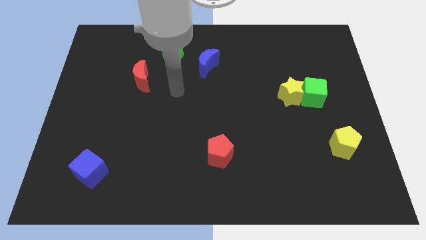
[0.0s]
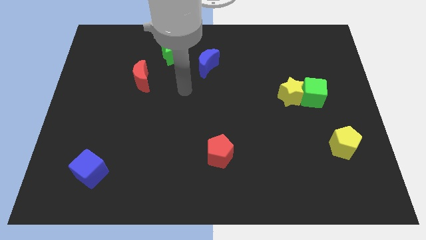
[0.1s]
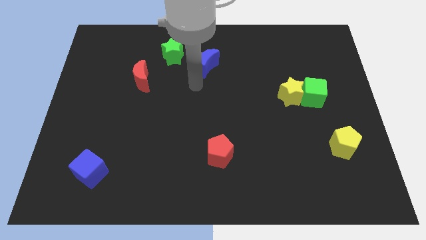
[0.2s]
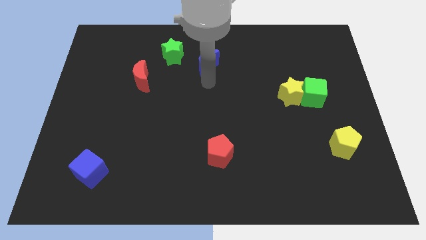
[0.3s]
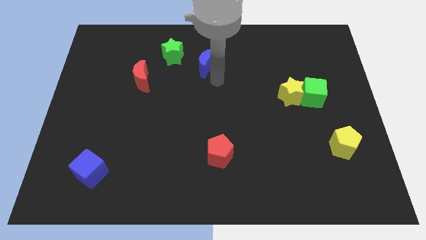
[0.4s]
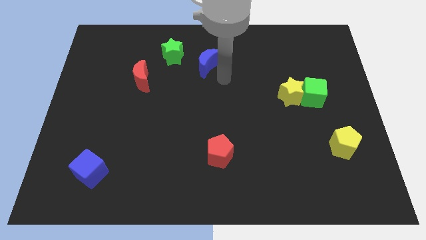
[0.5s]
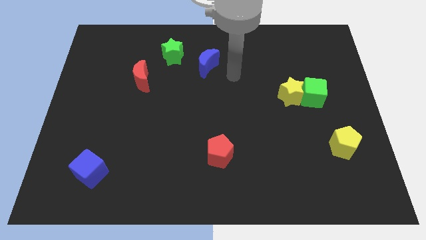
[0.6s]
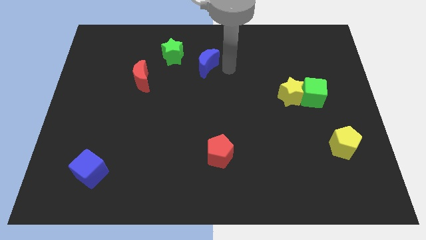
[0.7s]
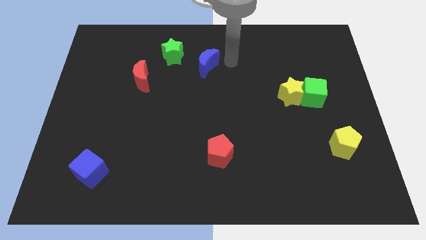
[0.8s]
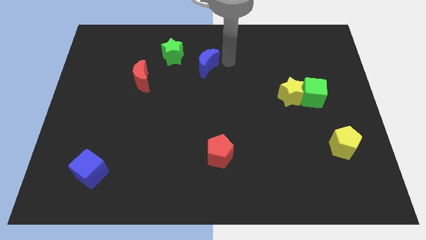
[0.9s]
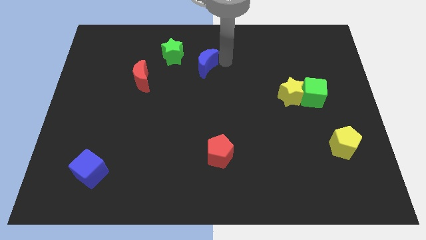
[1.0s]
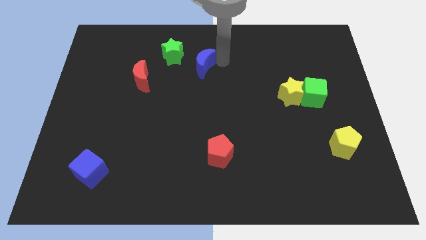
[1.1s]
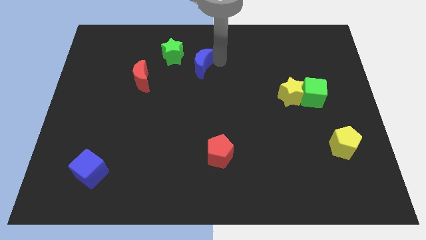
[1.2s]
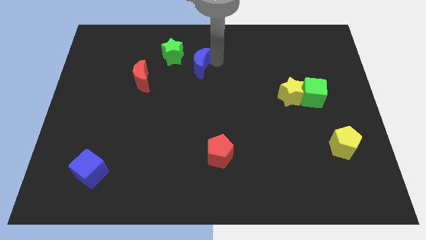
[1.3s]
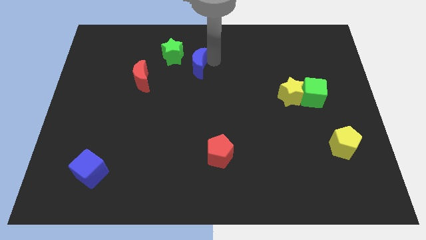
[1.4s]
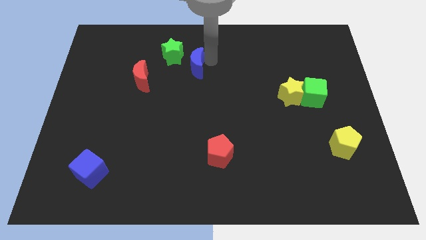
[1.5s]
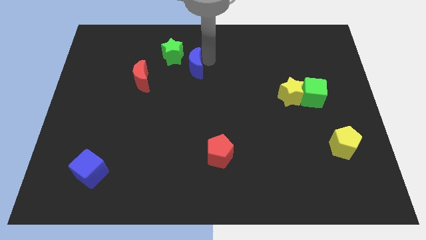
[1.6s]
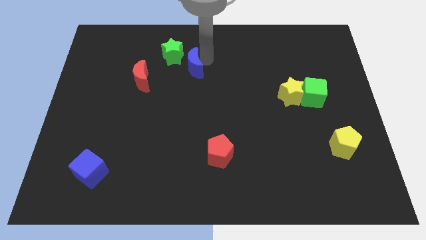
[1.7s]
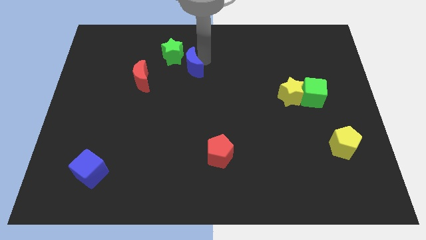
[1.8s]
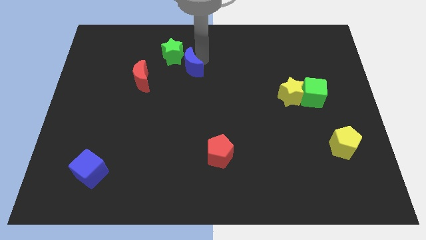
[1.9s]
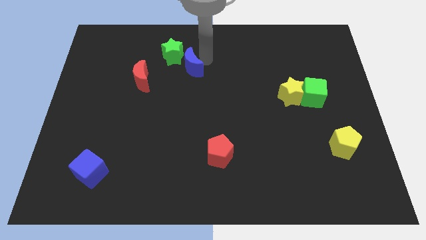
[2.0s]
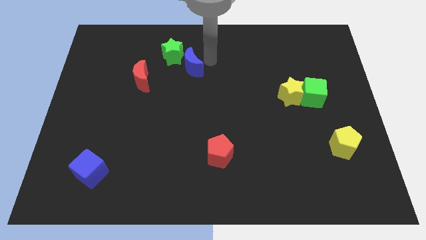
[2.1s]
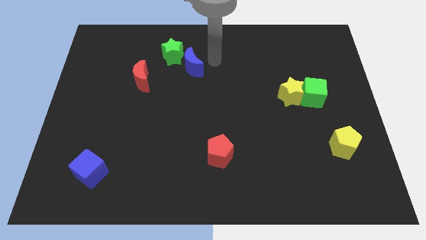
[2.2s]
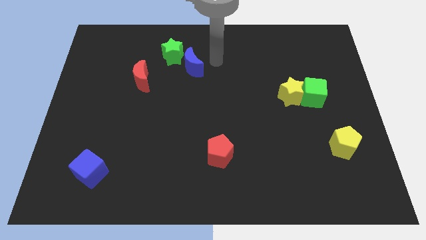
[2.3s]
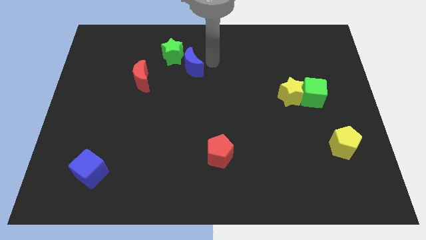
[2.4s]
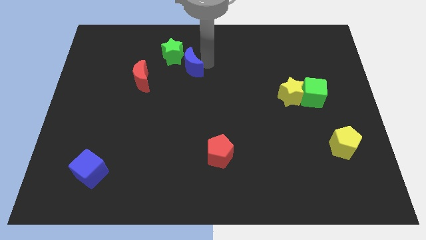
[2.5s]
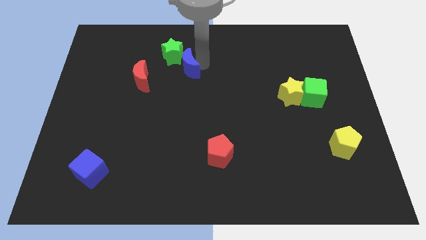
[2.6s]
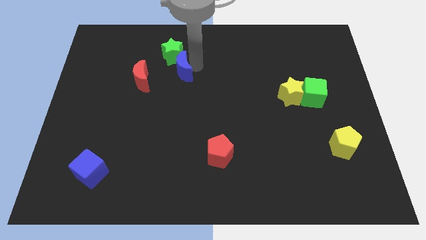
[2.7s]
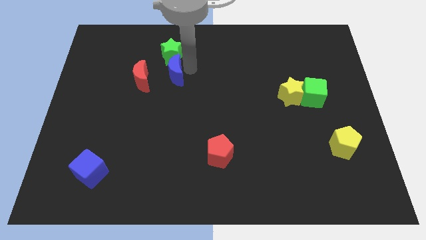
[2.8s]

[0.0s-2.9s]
push the blue moon a bit to the left

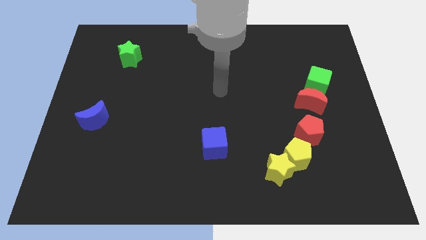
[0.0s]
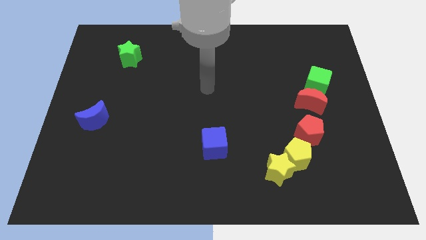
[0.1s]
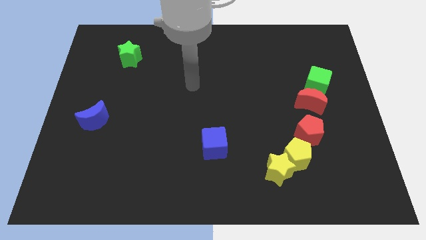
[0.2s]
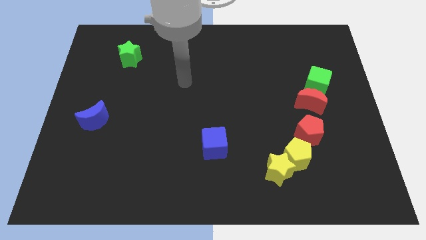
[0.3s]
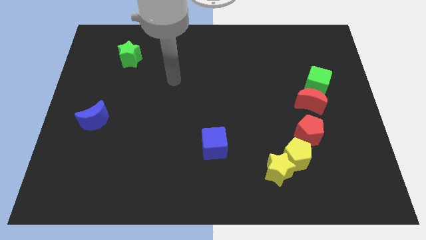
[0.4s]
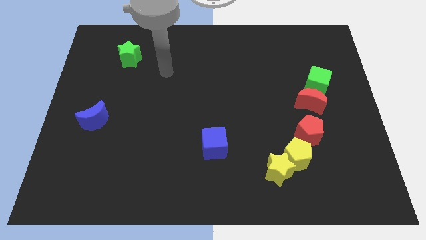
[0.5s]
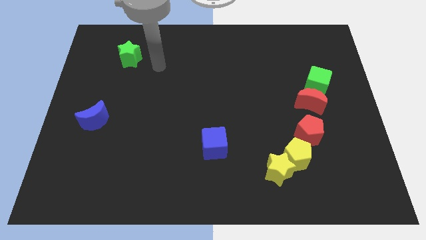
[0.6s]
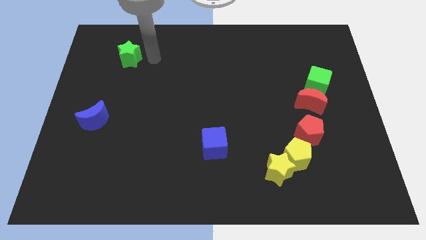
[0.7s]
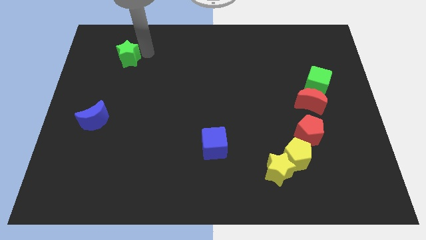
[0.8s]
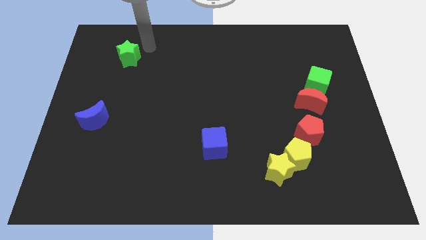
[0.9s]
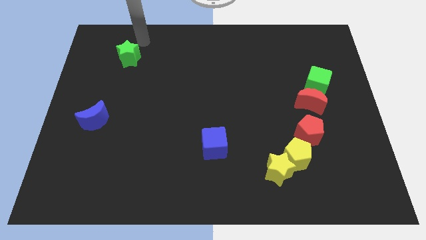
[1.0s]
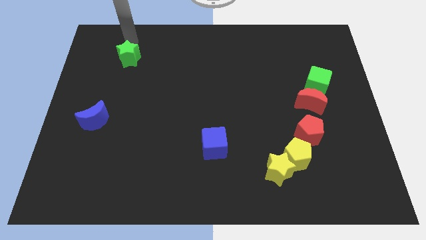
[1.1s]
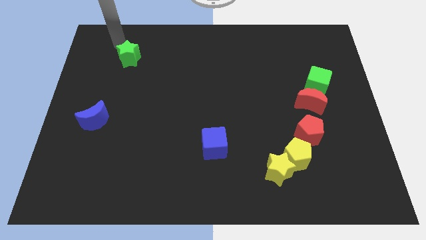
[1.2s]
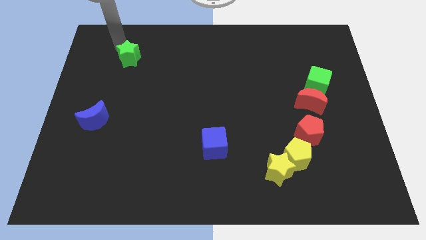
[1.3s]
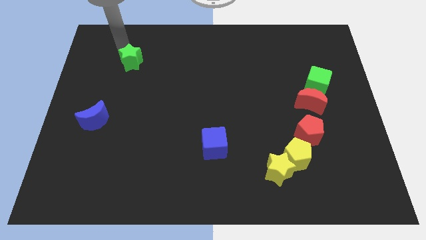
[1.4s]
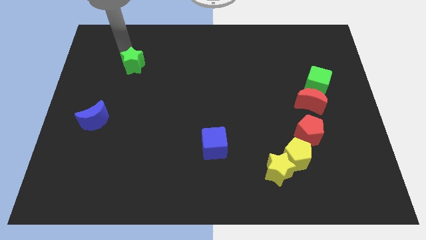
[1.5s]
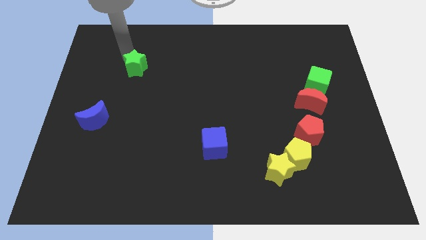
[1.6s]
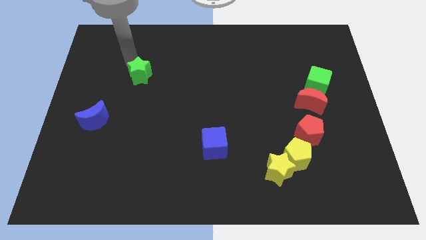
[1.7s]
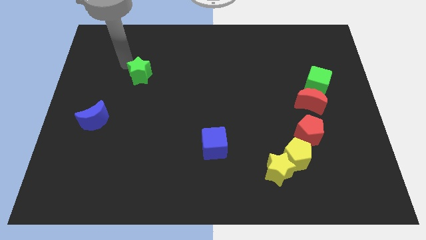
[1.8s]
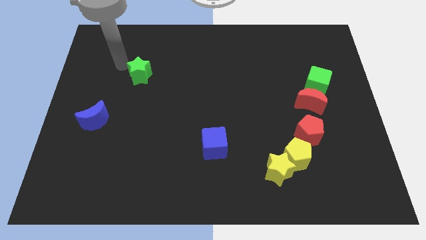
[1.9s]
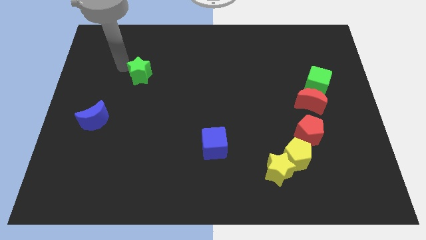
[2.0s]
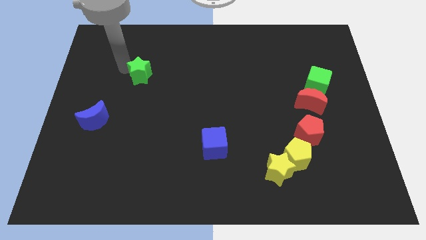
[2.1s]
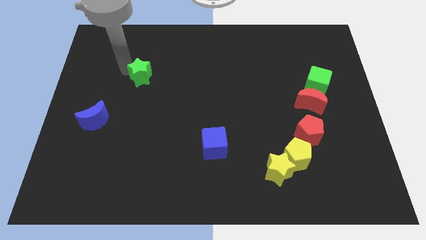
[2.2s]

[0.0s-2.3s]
slide the green star a little downwards and then right

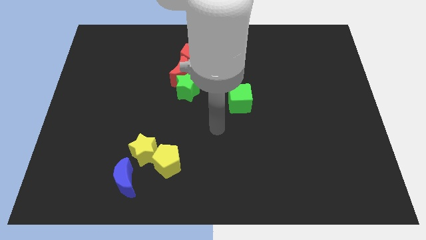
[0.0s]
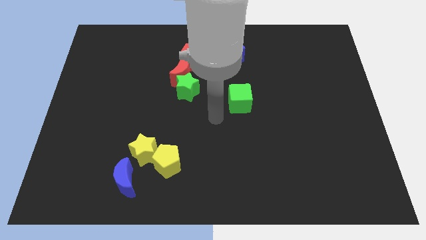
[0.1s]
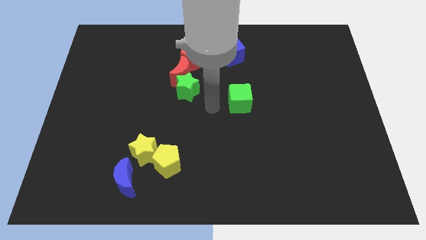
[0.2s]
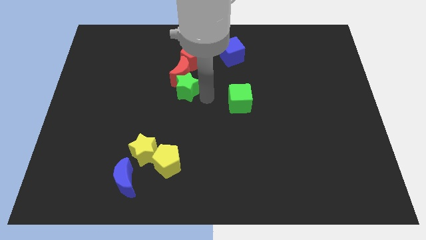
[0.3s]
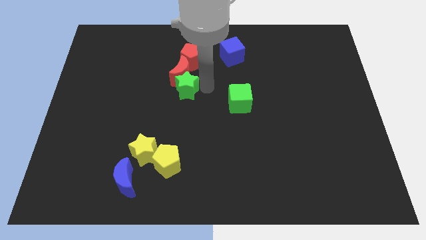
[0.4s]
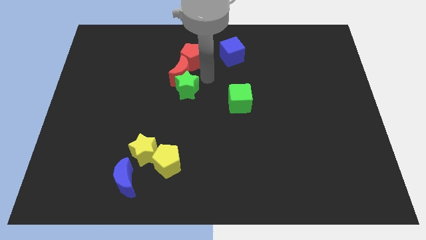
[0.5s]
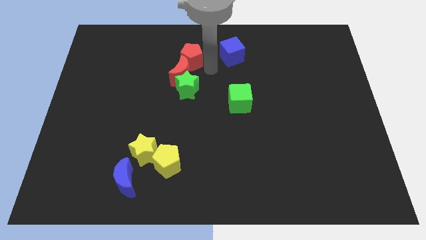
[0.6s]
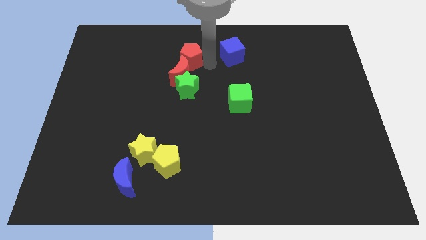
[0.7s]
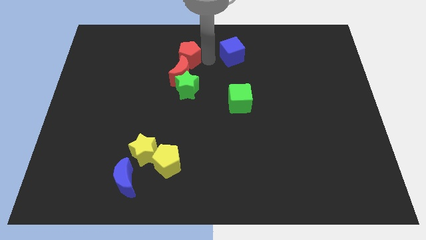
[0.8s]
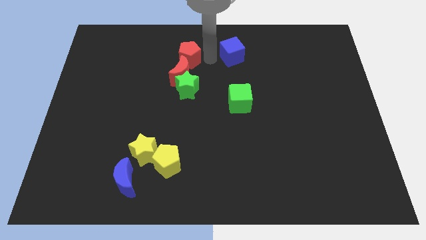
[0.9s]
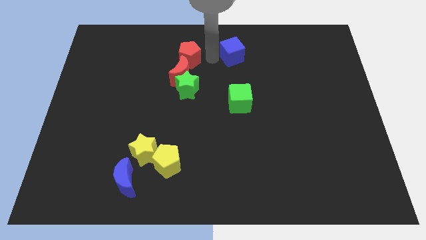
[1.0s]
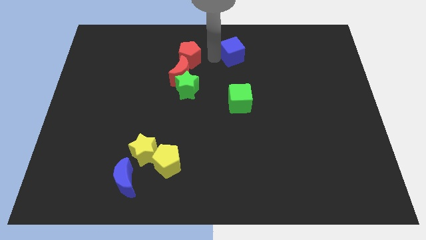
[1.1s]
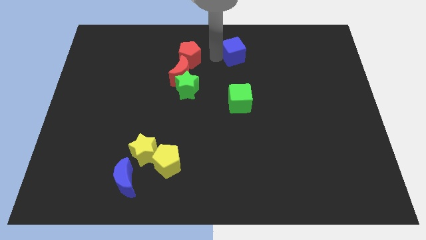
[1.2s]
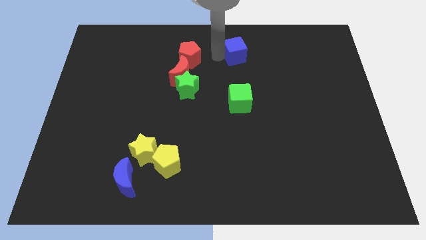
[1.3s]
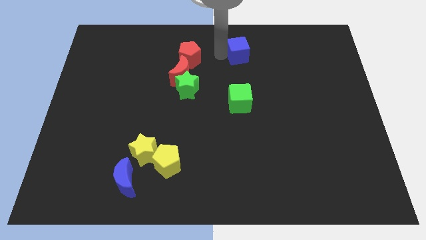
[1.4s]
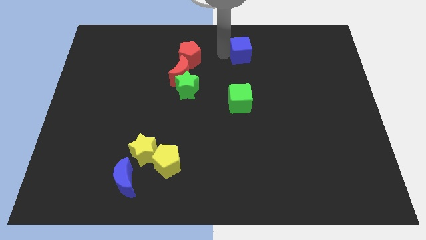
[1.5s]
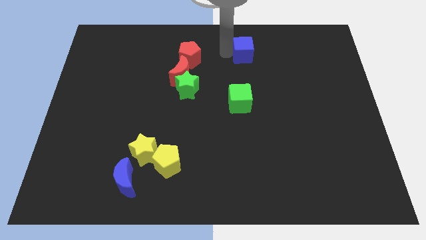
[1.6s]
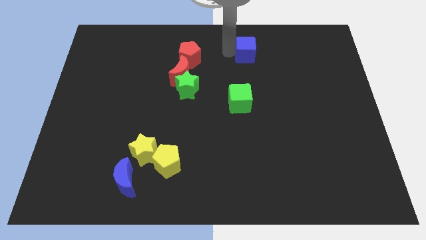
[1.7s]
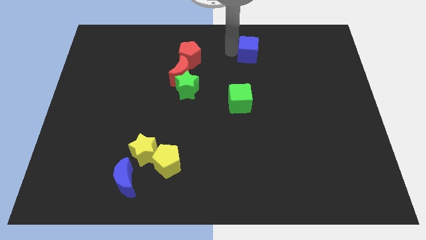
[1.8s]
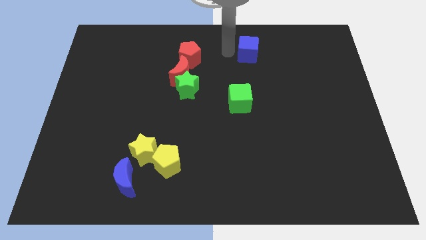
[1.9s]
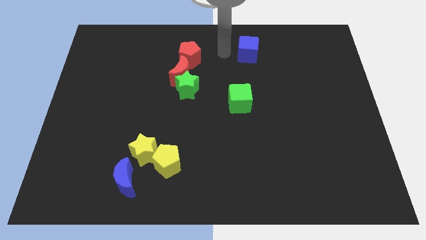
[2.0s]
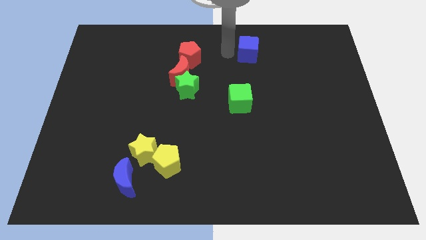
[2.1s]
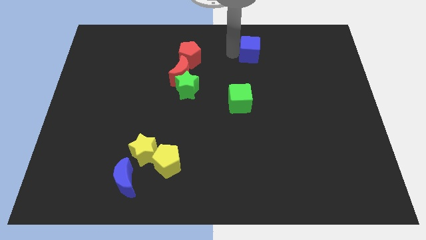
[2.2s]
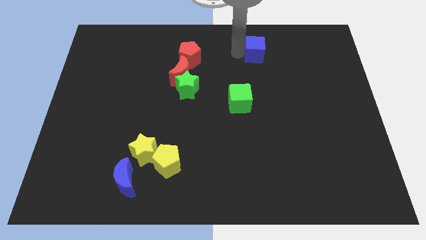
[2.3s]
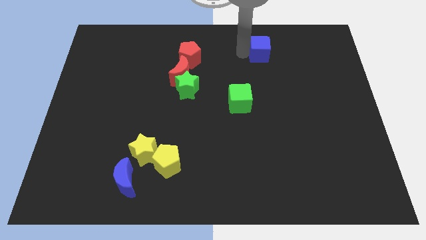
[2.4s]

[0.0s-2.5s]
move the blue cube a little right
